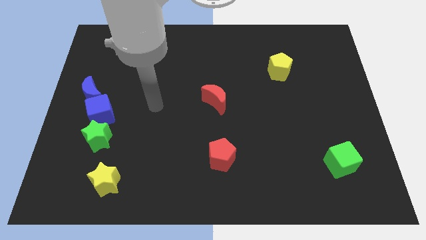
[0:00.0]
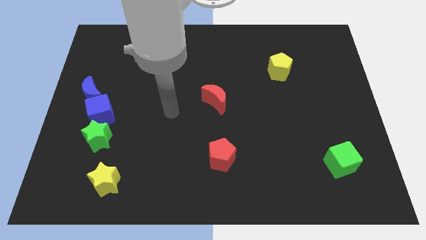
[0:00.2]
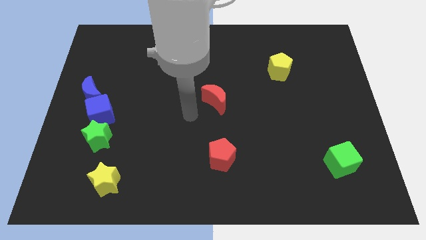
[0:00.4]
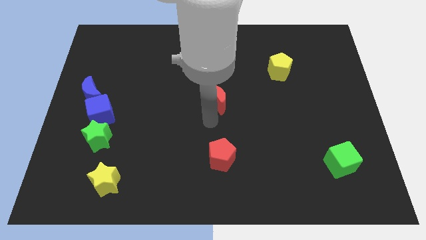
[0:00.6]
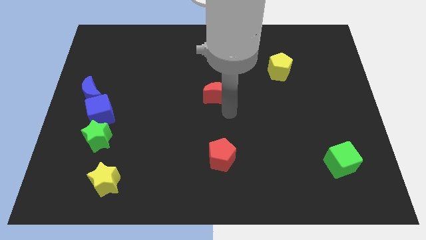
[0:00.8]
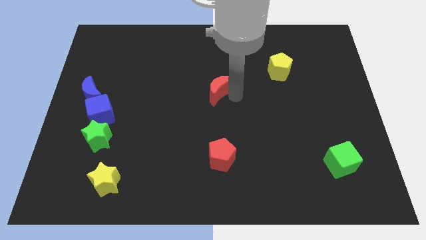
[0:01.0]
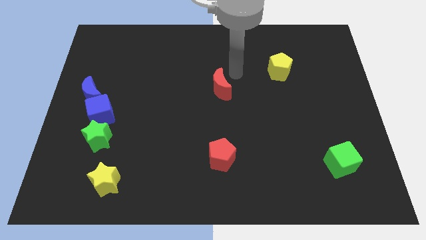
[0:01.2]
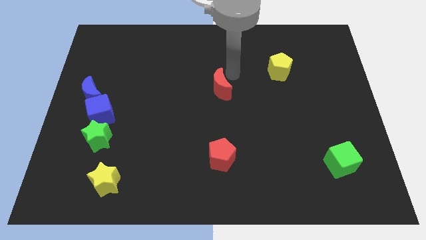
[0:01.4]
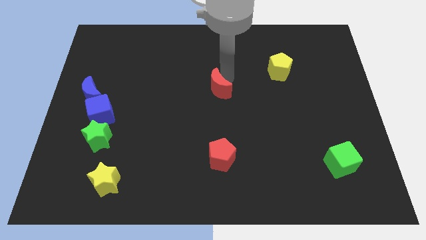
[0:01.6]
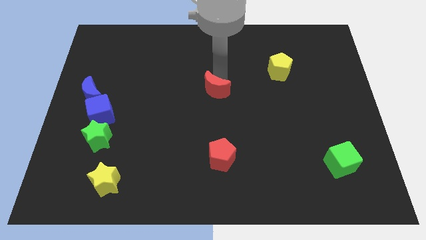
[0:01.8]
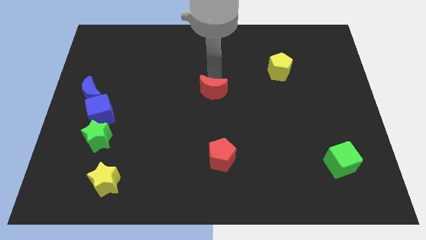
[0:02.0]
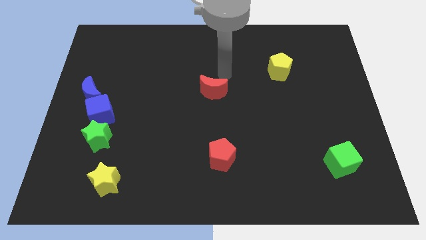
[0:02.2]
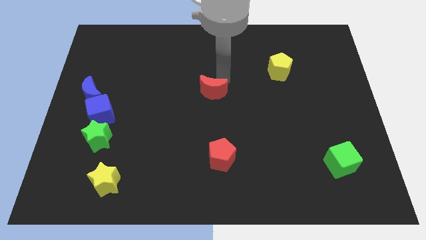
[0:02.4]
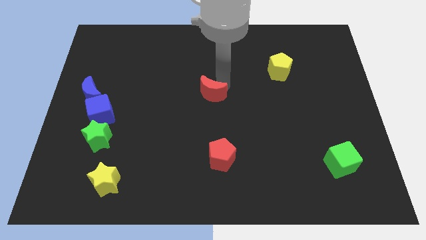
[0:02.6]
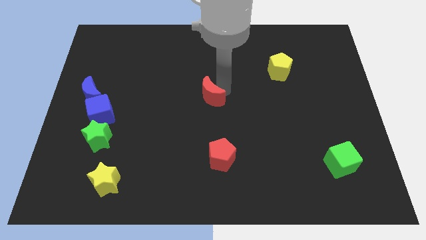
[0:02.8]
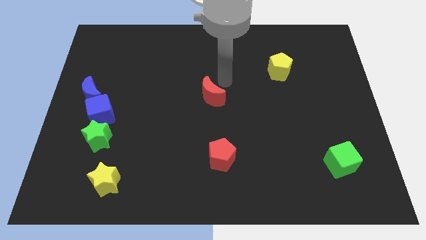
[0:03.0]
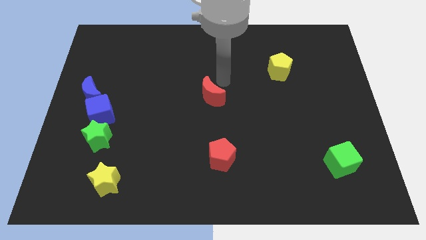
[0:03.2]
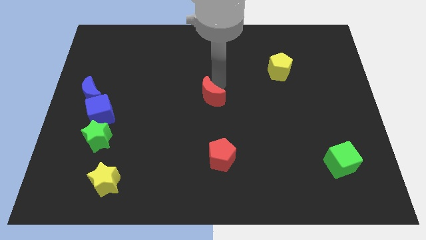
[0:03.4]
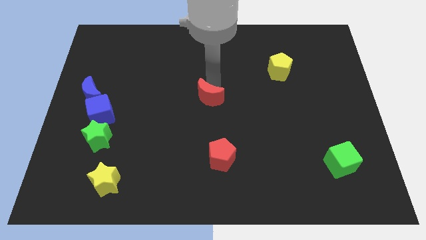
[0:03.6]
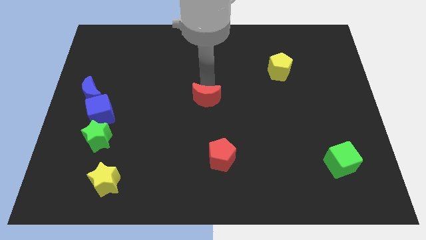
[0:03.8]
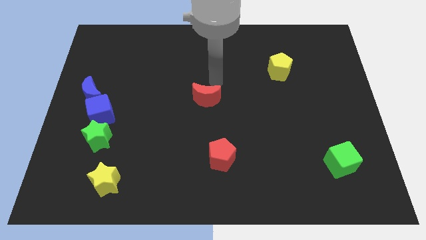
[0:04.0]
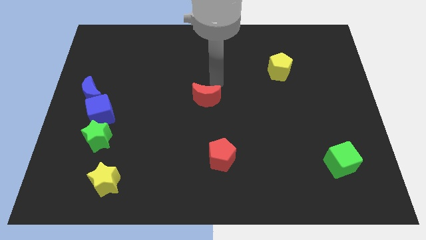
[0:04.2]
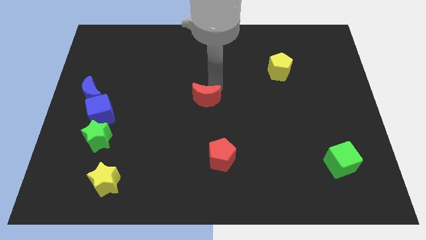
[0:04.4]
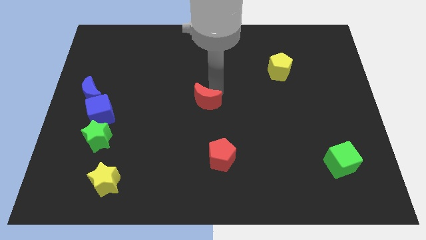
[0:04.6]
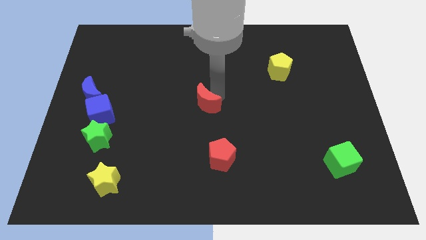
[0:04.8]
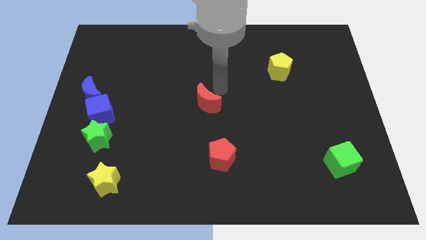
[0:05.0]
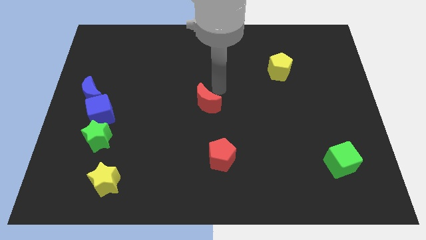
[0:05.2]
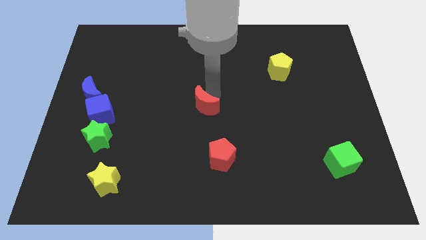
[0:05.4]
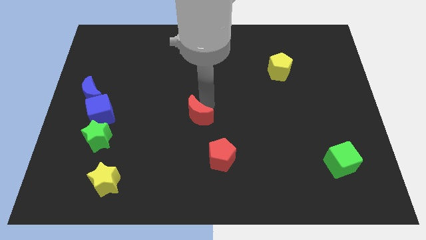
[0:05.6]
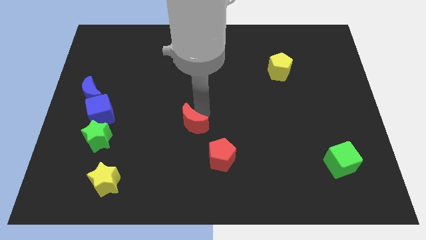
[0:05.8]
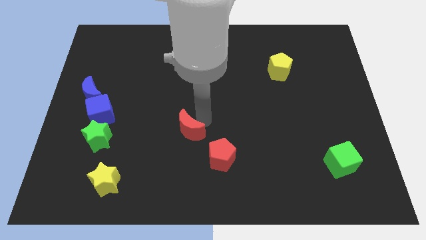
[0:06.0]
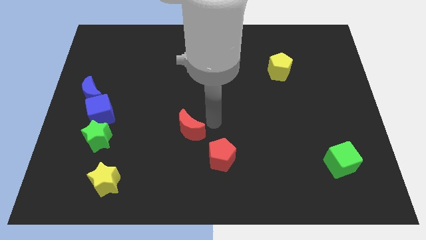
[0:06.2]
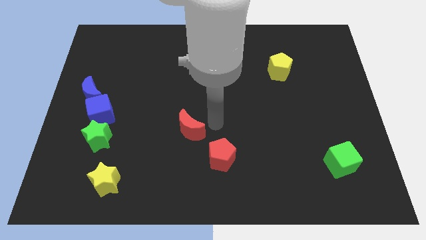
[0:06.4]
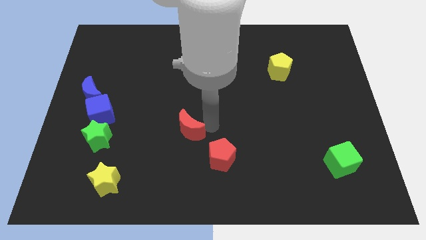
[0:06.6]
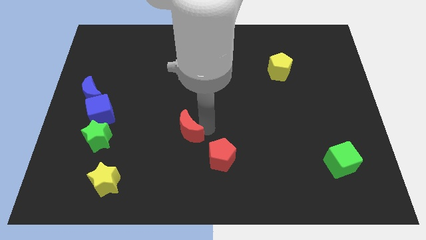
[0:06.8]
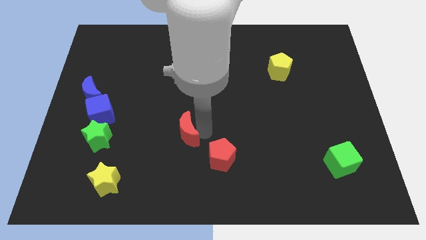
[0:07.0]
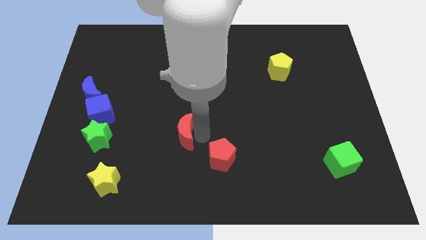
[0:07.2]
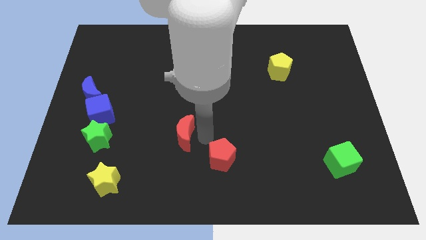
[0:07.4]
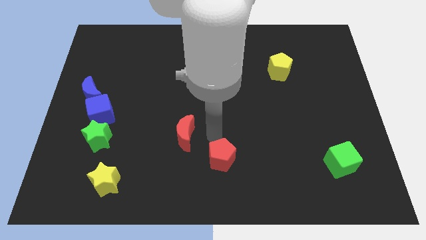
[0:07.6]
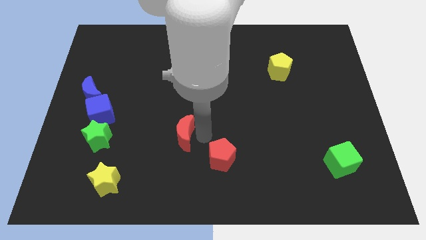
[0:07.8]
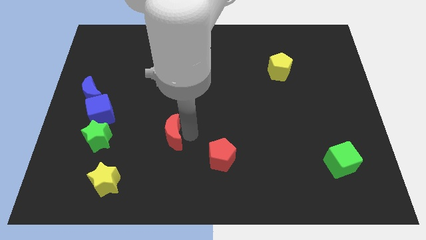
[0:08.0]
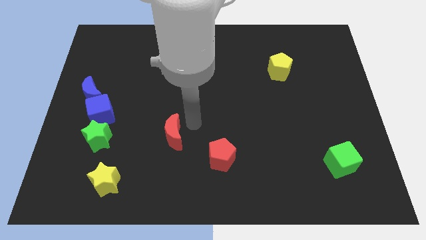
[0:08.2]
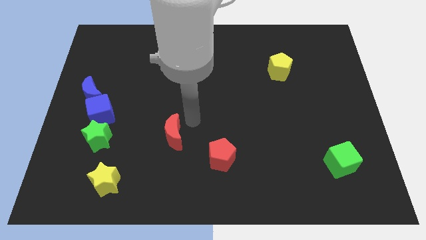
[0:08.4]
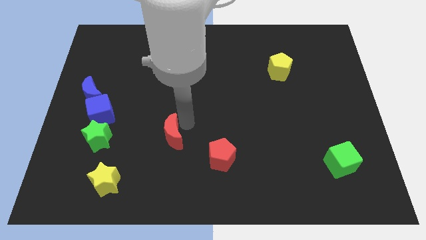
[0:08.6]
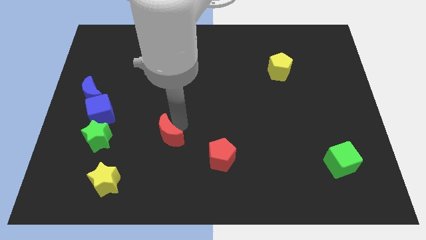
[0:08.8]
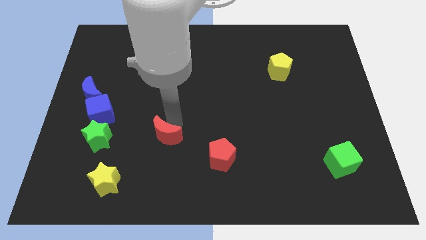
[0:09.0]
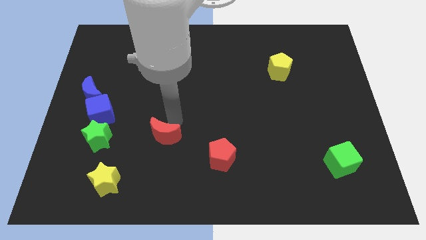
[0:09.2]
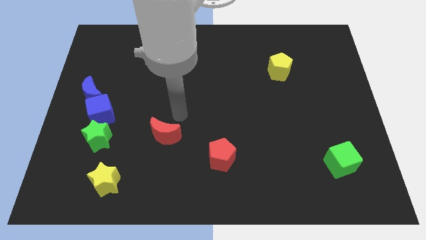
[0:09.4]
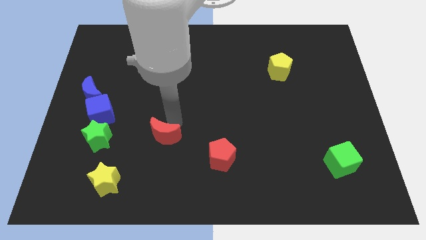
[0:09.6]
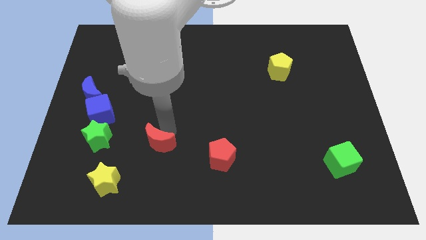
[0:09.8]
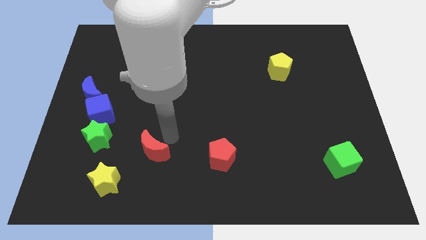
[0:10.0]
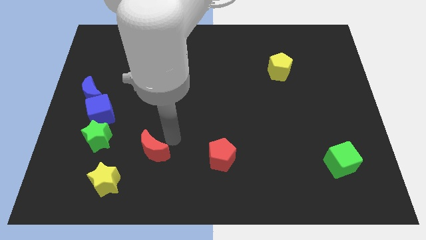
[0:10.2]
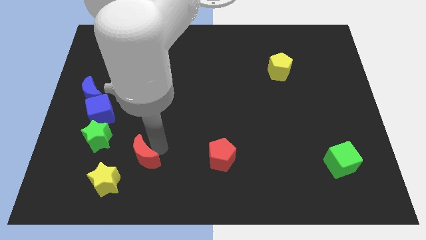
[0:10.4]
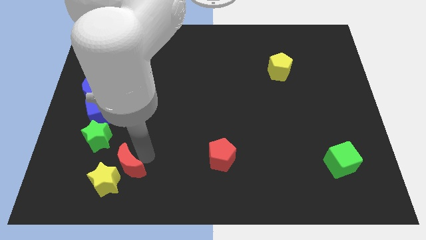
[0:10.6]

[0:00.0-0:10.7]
put the red moon close to the yellow star

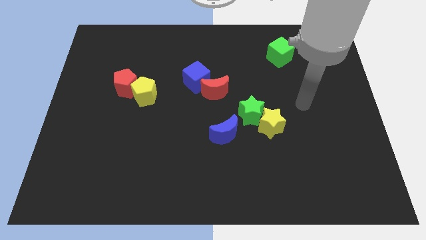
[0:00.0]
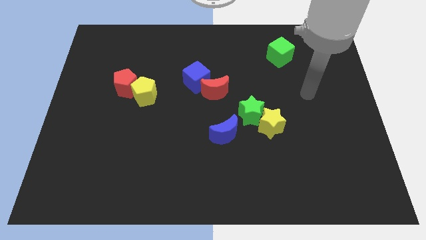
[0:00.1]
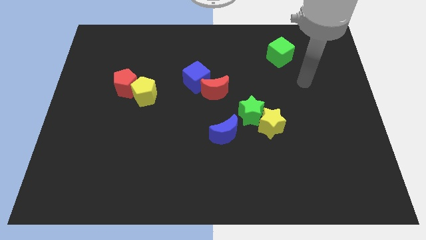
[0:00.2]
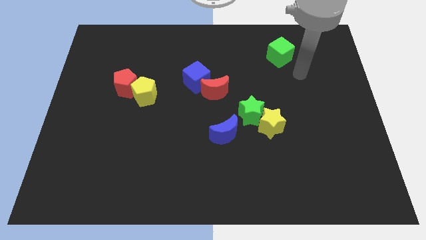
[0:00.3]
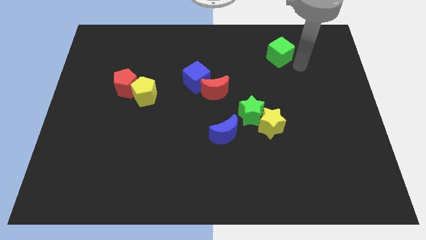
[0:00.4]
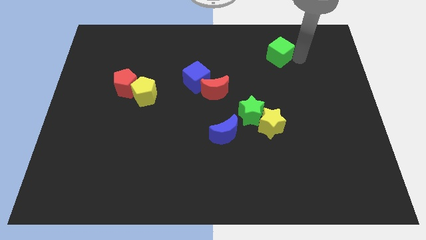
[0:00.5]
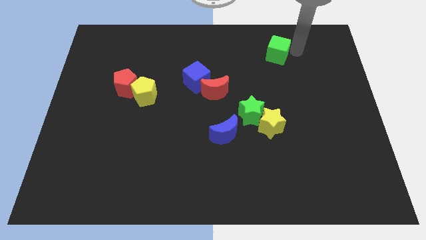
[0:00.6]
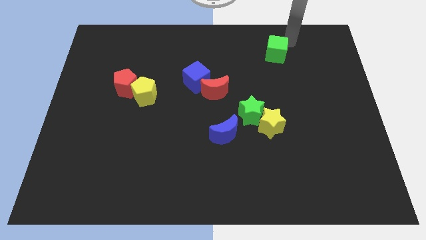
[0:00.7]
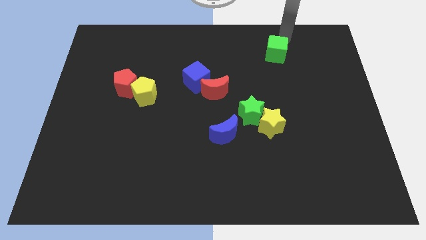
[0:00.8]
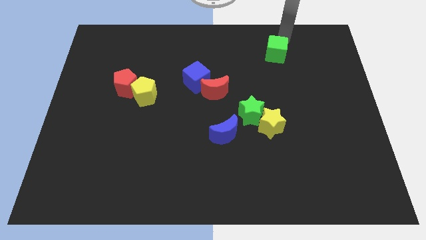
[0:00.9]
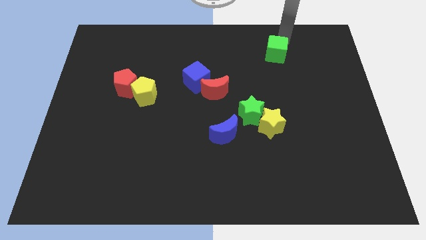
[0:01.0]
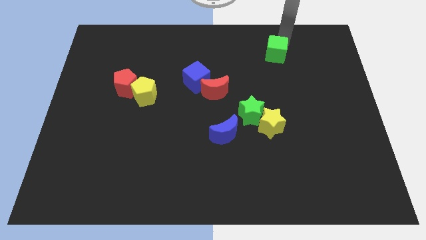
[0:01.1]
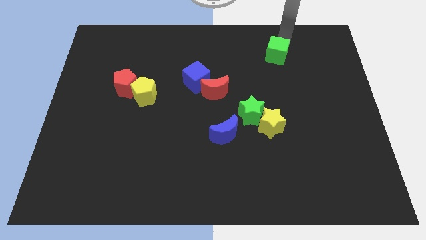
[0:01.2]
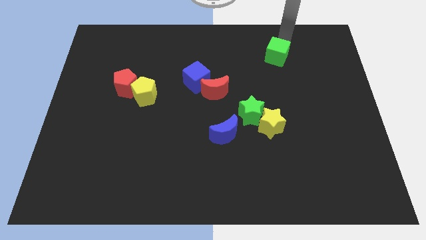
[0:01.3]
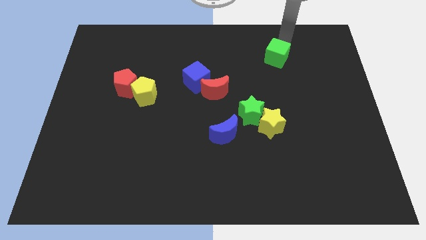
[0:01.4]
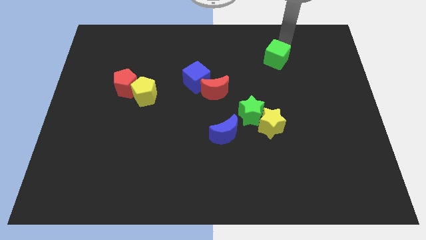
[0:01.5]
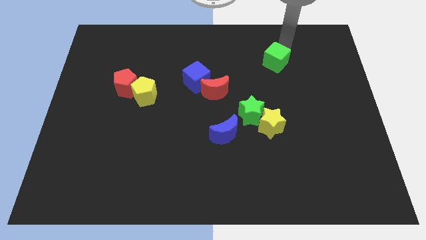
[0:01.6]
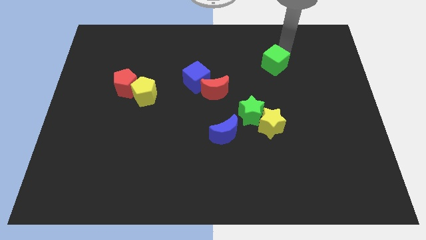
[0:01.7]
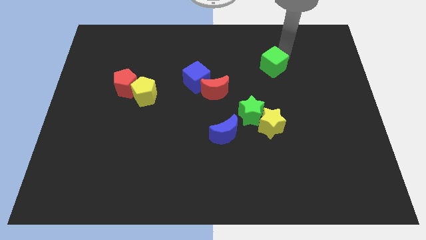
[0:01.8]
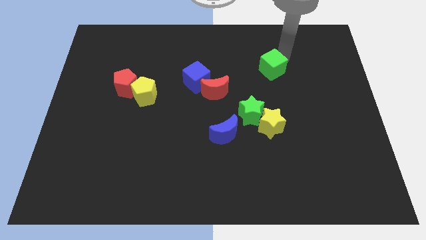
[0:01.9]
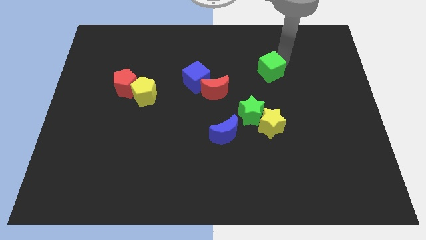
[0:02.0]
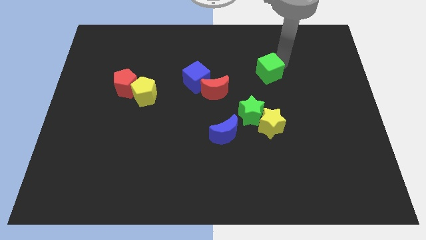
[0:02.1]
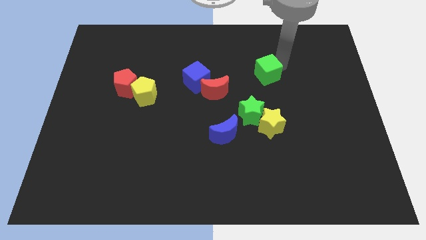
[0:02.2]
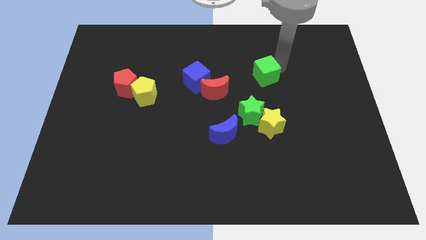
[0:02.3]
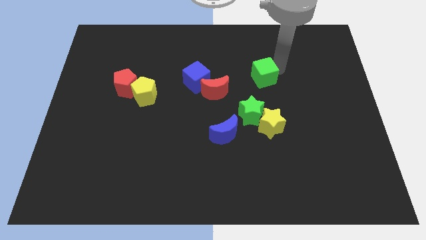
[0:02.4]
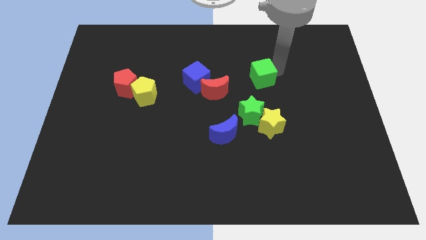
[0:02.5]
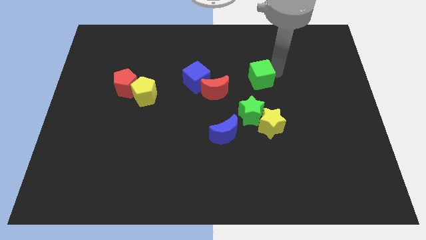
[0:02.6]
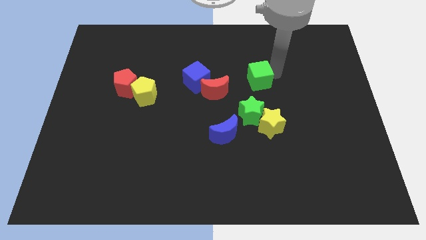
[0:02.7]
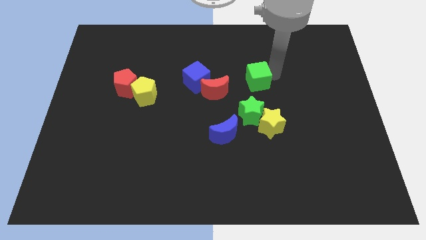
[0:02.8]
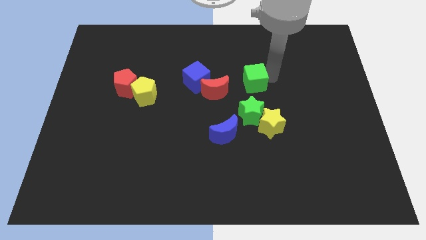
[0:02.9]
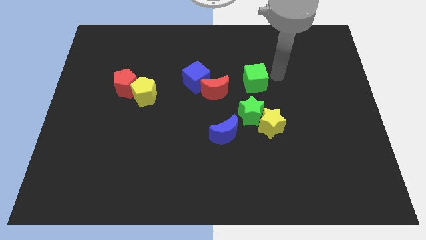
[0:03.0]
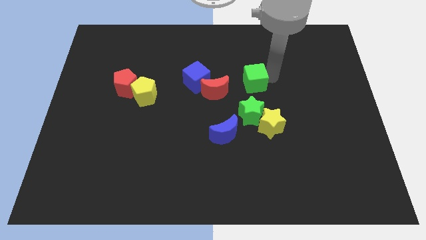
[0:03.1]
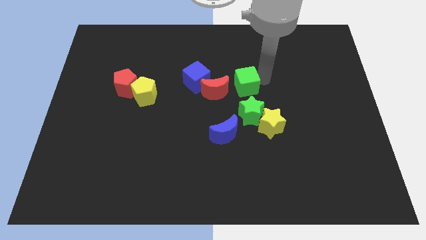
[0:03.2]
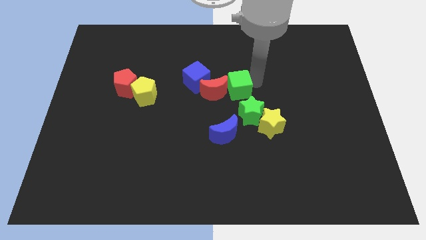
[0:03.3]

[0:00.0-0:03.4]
move the green cube next to the red moon
